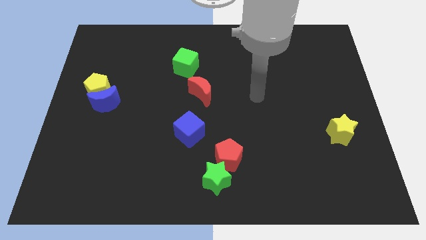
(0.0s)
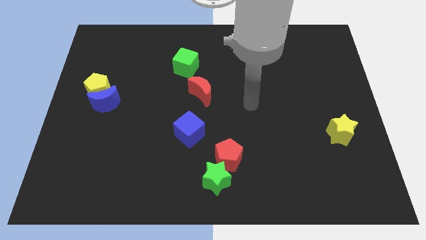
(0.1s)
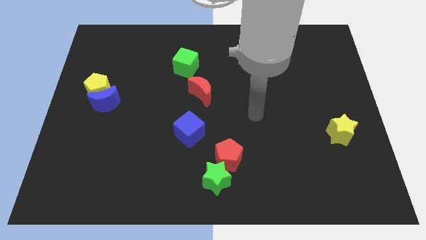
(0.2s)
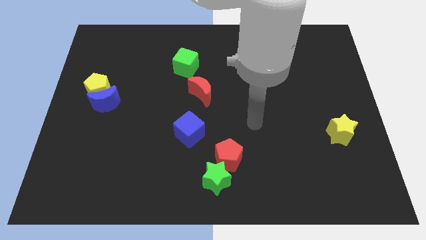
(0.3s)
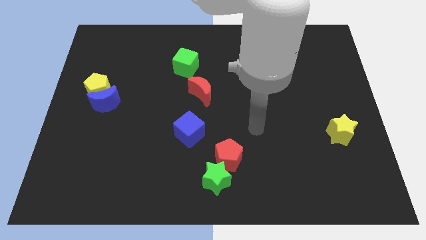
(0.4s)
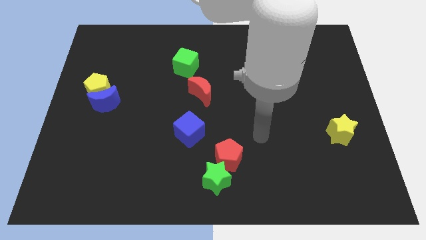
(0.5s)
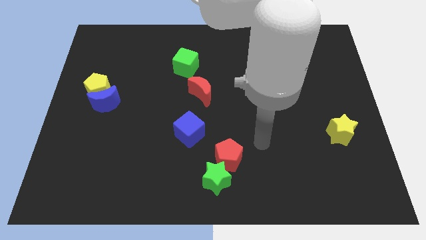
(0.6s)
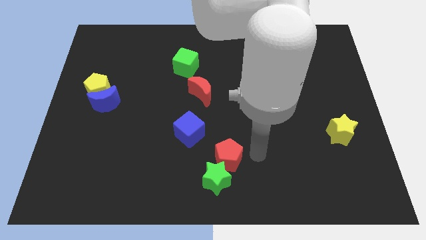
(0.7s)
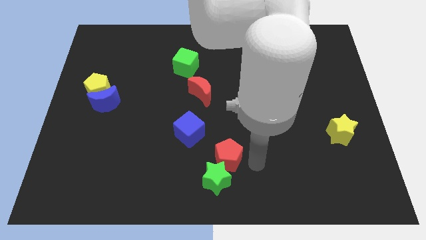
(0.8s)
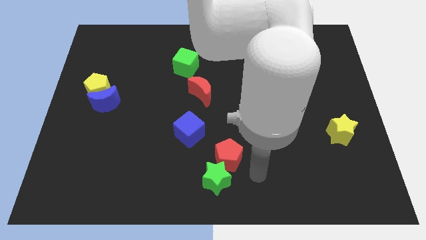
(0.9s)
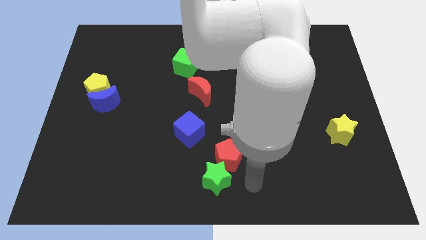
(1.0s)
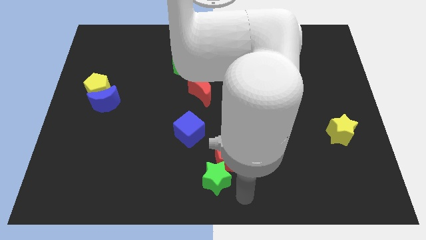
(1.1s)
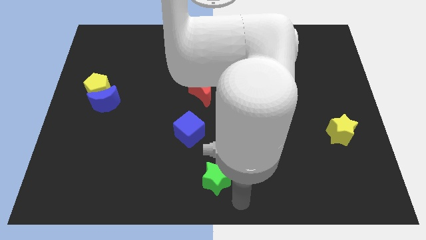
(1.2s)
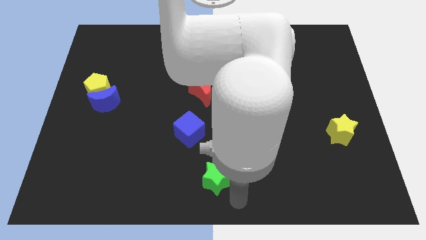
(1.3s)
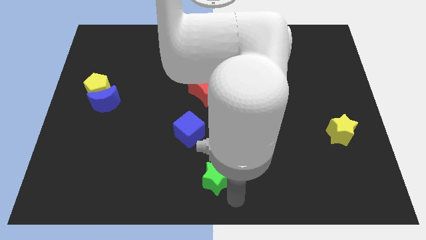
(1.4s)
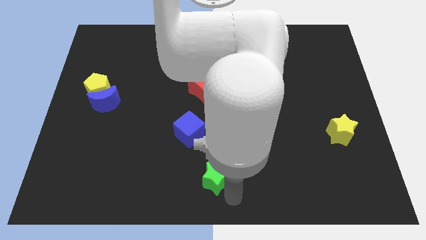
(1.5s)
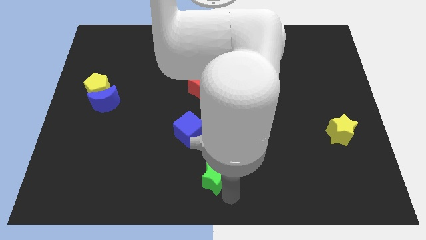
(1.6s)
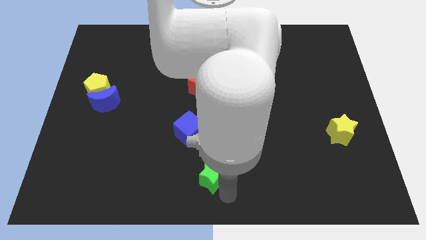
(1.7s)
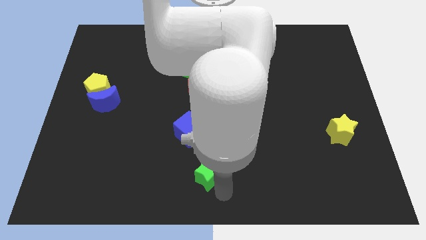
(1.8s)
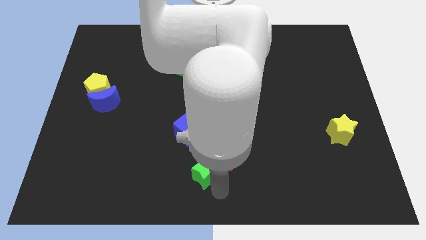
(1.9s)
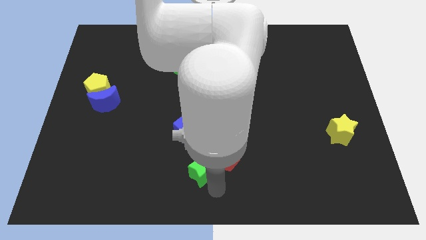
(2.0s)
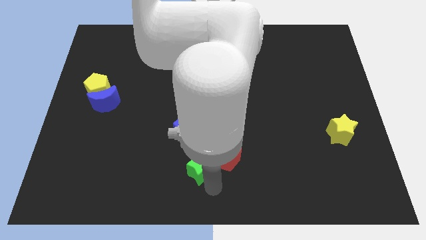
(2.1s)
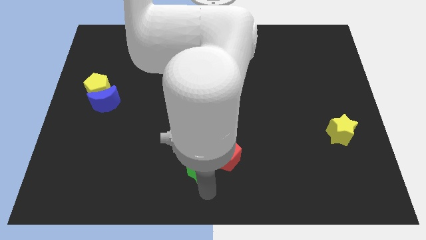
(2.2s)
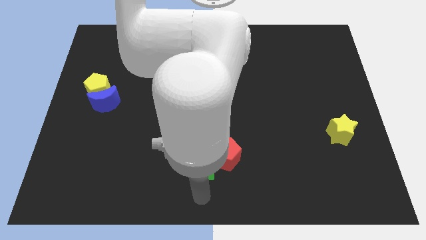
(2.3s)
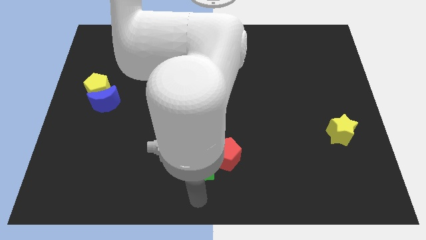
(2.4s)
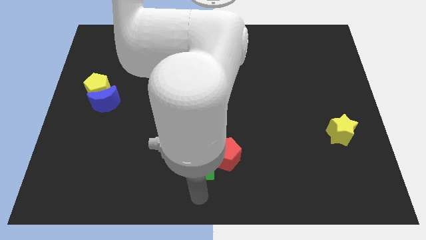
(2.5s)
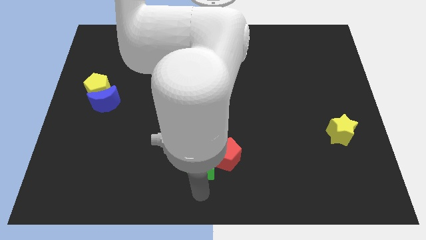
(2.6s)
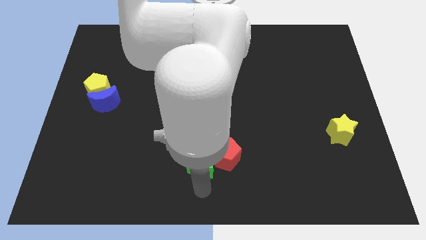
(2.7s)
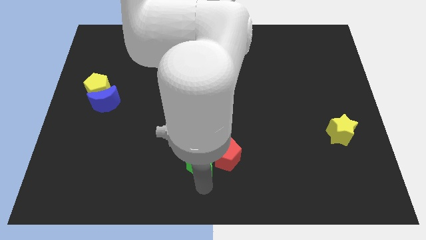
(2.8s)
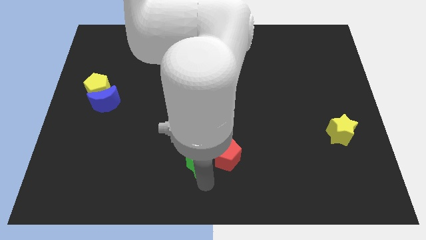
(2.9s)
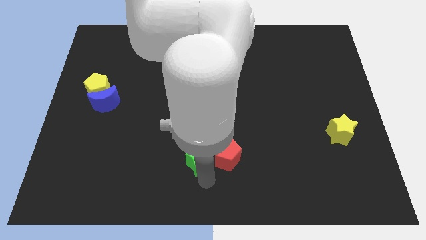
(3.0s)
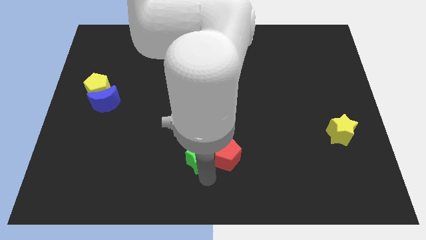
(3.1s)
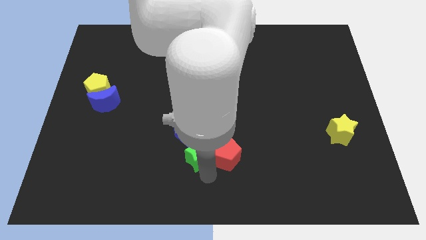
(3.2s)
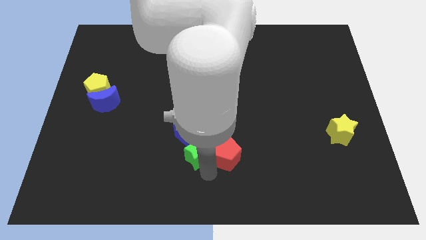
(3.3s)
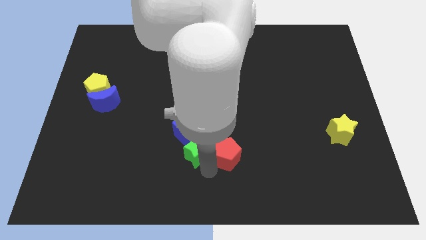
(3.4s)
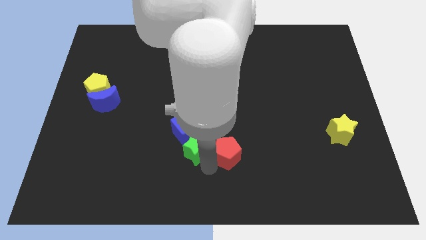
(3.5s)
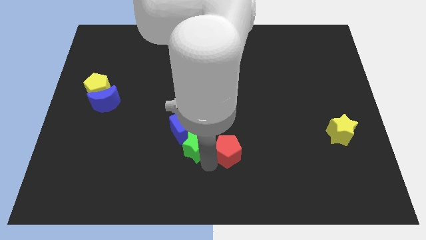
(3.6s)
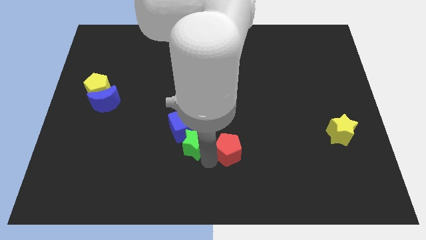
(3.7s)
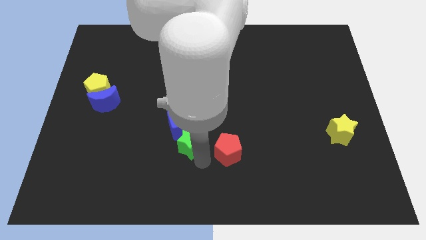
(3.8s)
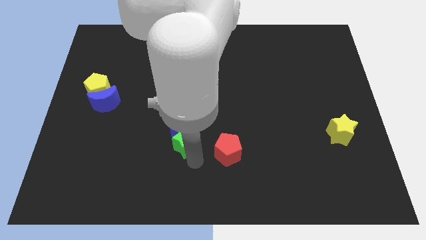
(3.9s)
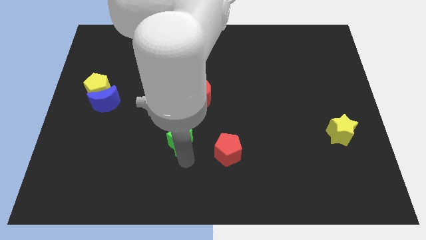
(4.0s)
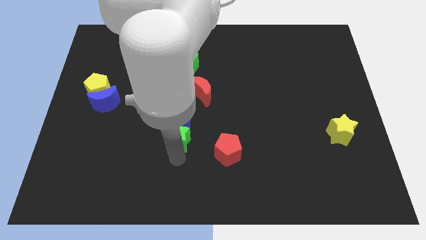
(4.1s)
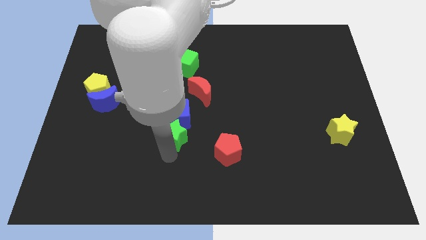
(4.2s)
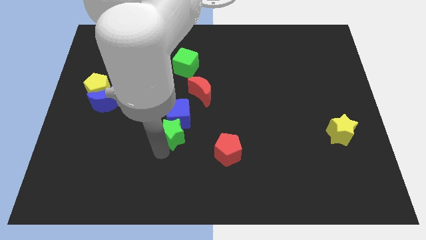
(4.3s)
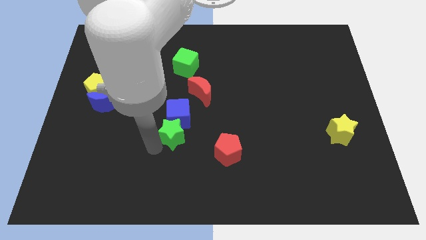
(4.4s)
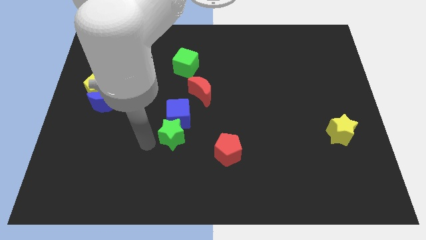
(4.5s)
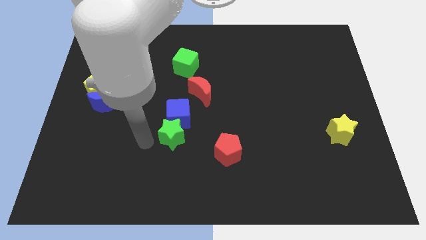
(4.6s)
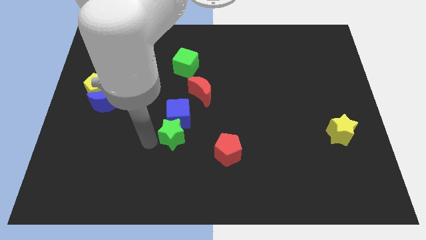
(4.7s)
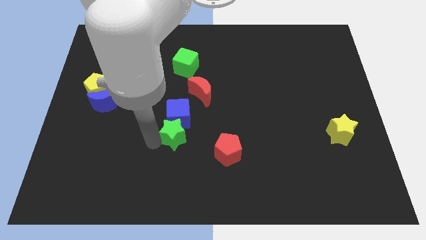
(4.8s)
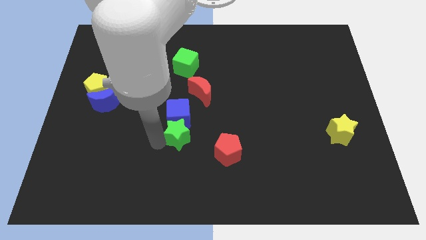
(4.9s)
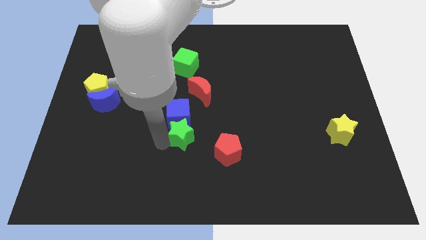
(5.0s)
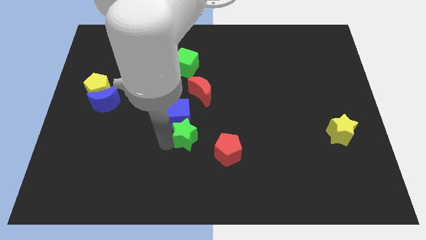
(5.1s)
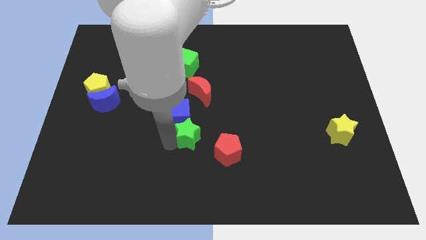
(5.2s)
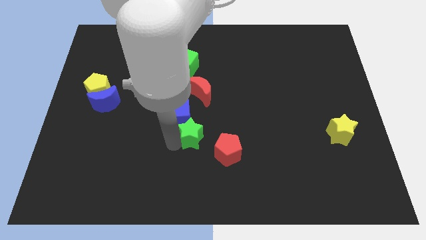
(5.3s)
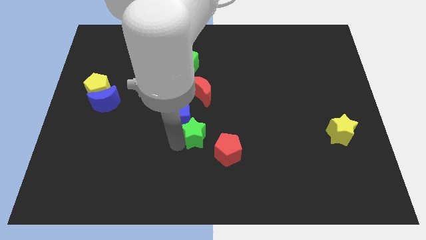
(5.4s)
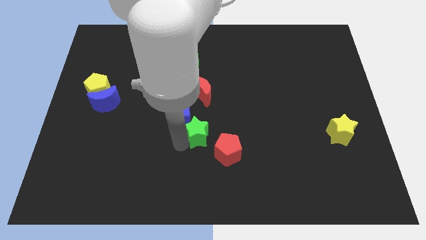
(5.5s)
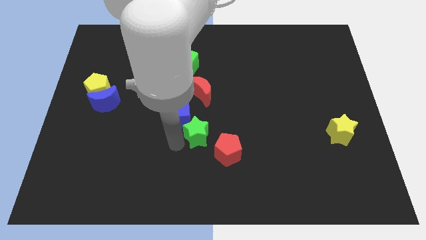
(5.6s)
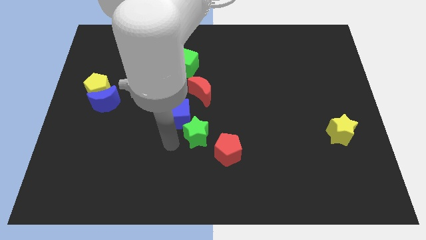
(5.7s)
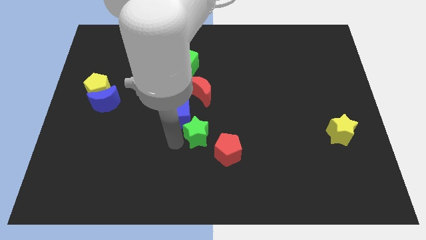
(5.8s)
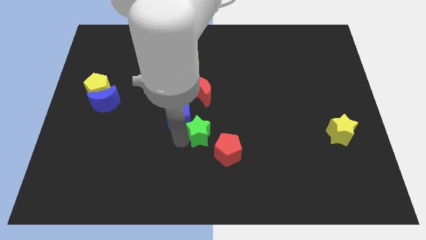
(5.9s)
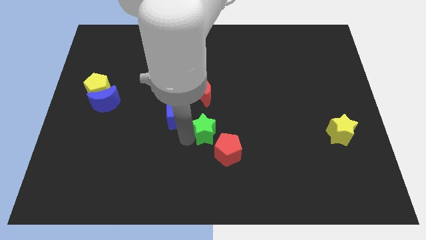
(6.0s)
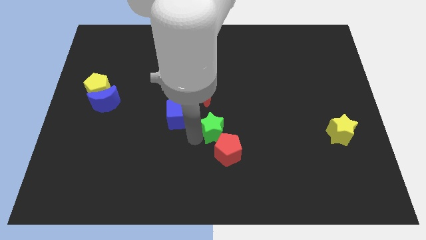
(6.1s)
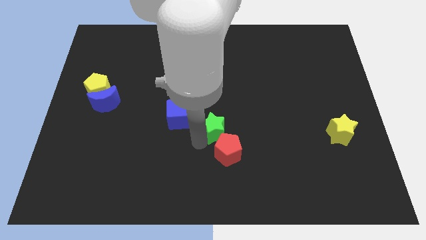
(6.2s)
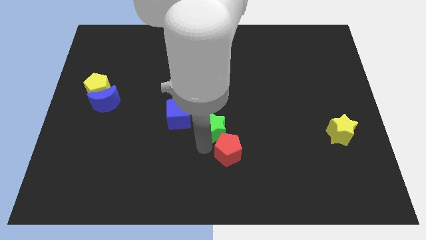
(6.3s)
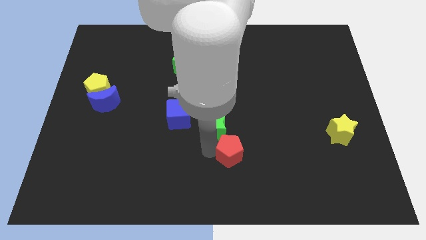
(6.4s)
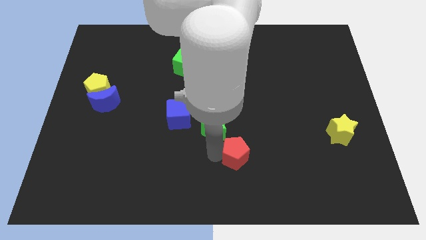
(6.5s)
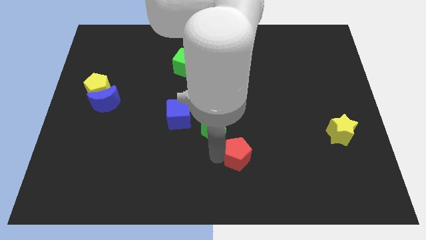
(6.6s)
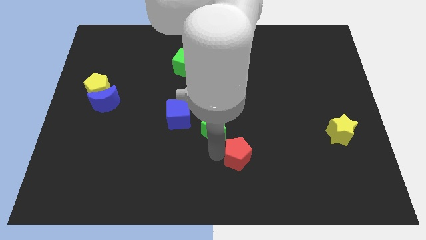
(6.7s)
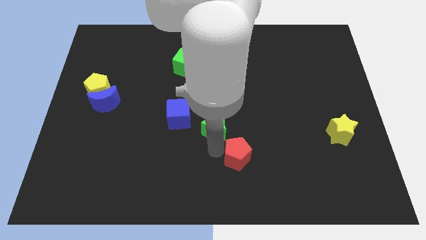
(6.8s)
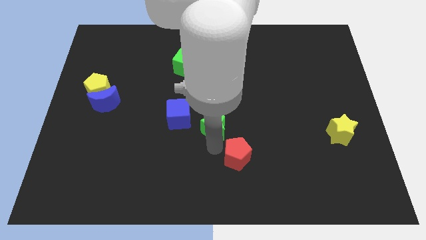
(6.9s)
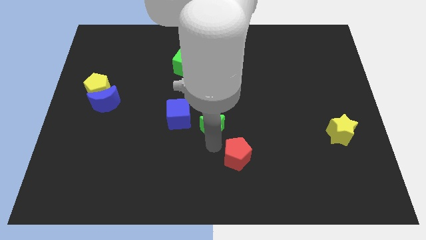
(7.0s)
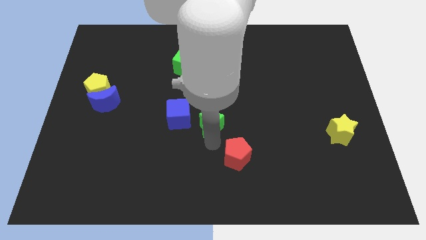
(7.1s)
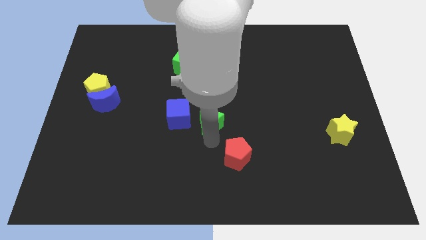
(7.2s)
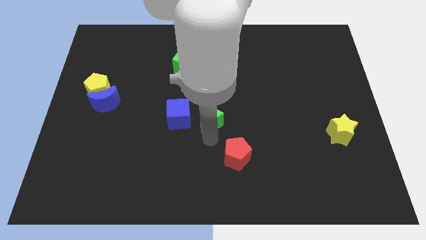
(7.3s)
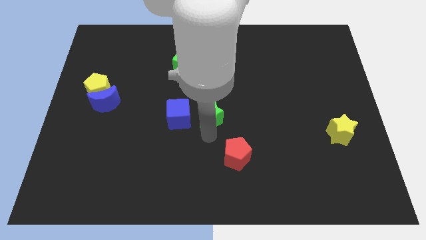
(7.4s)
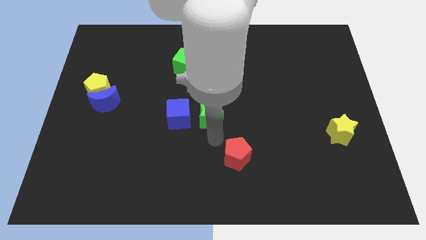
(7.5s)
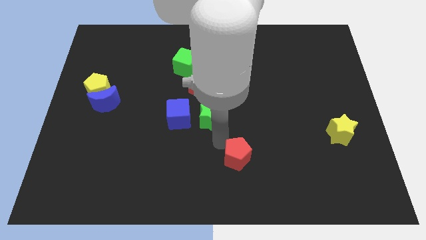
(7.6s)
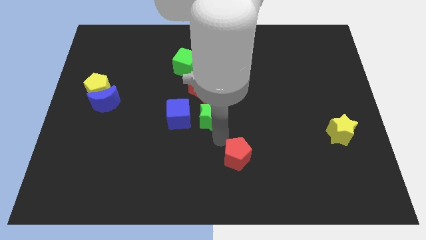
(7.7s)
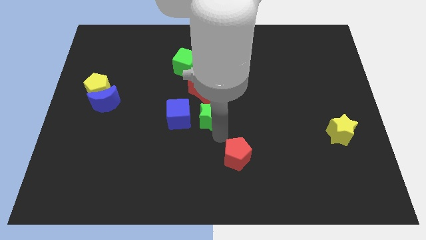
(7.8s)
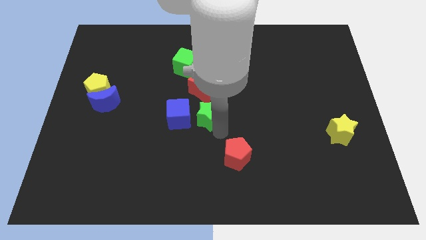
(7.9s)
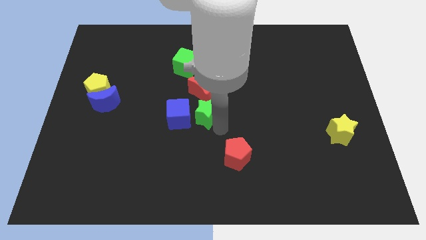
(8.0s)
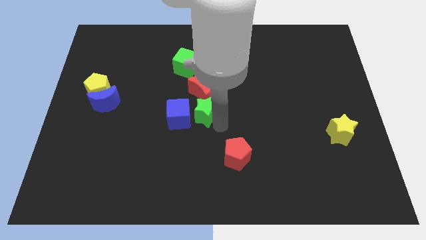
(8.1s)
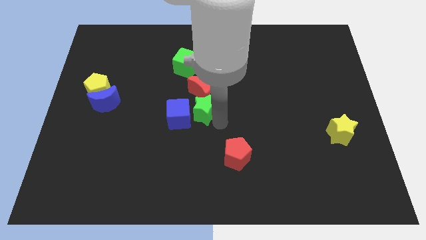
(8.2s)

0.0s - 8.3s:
push the green star next to the red moon
